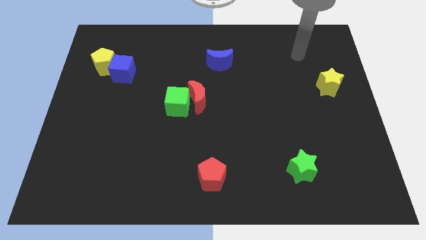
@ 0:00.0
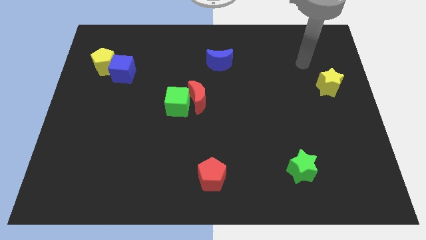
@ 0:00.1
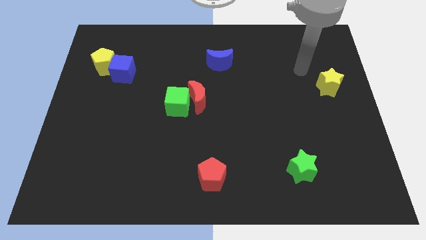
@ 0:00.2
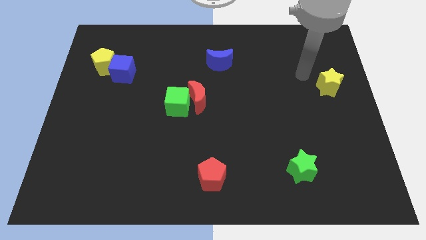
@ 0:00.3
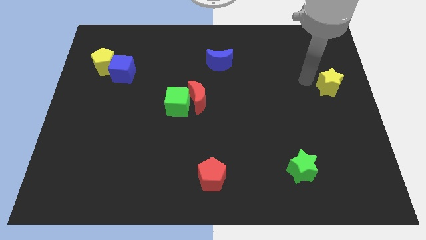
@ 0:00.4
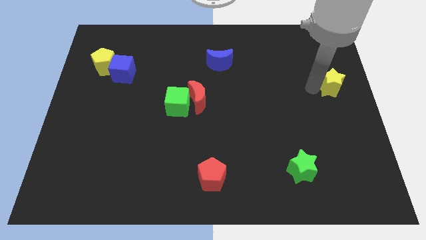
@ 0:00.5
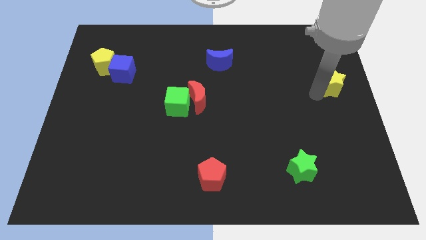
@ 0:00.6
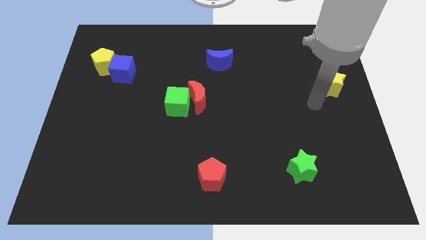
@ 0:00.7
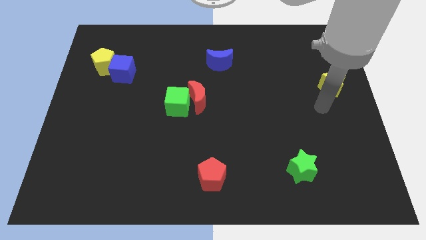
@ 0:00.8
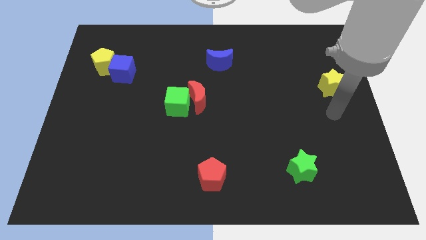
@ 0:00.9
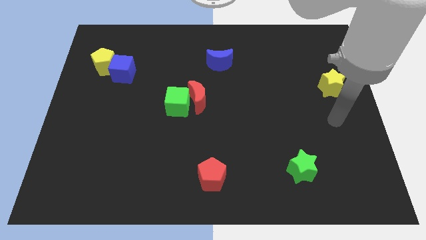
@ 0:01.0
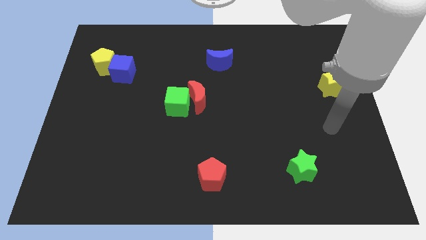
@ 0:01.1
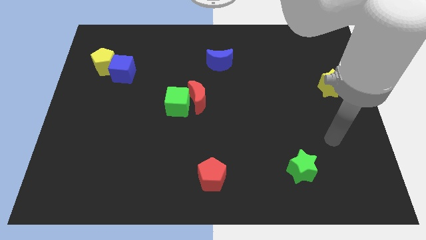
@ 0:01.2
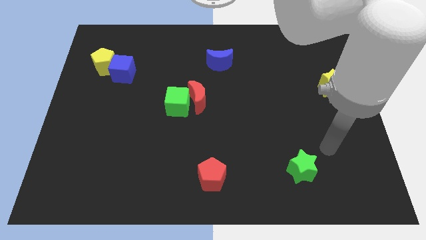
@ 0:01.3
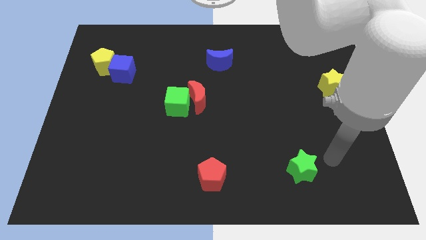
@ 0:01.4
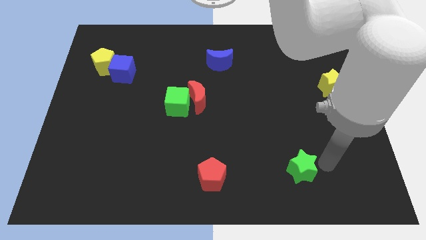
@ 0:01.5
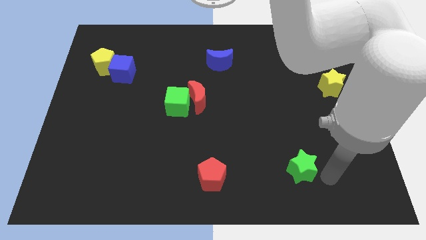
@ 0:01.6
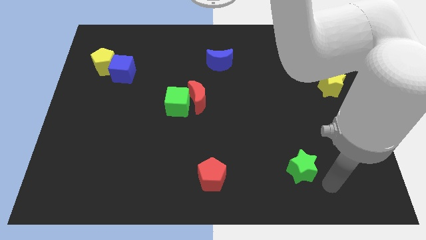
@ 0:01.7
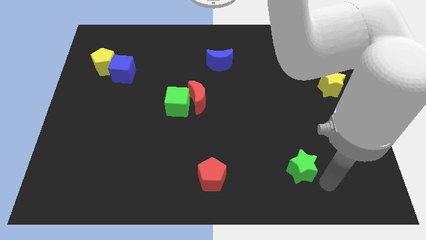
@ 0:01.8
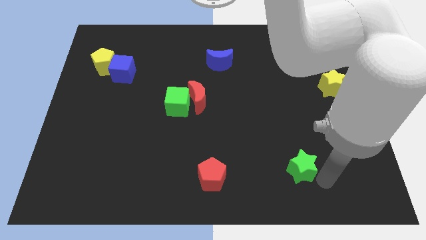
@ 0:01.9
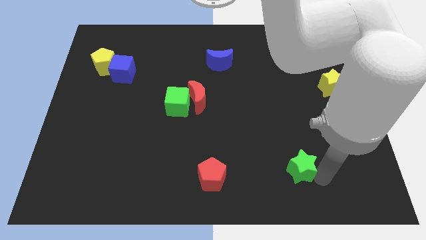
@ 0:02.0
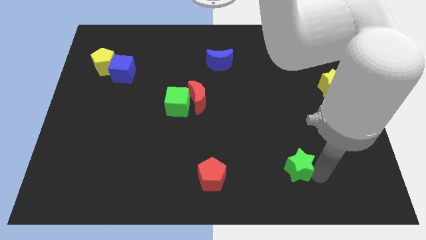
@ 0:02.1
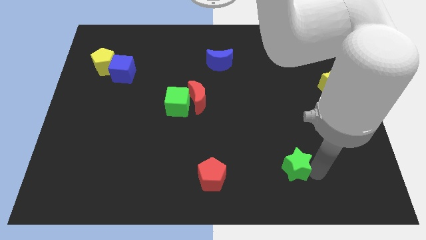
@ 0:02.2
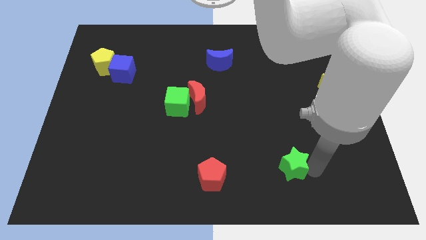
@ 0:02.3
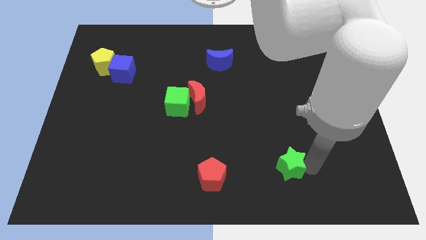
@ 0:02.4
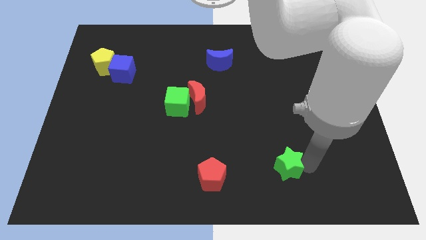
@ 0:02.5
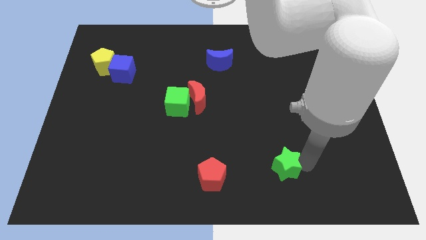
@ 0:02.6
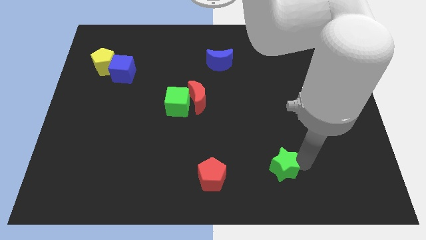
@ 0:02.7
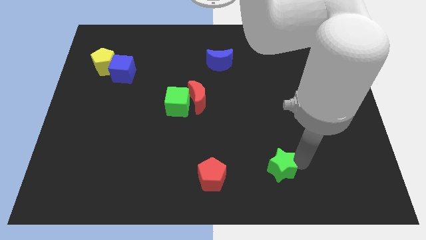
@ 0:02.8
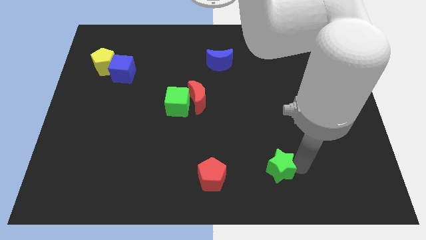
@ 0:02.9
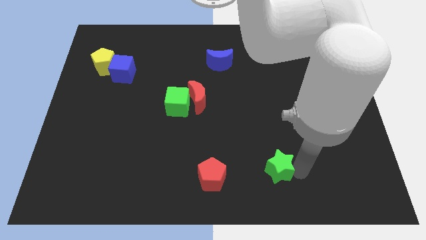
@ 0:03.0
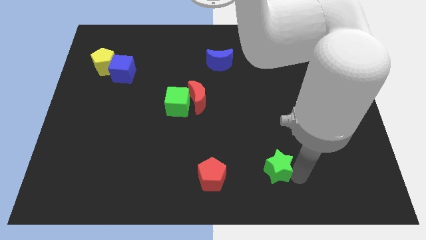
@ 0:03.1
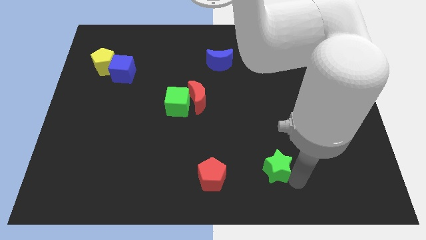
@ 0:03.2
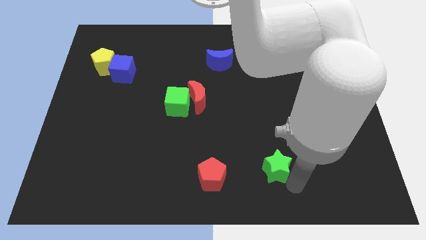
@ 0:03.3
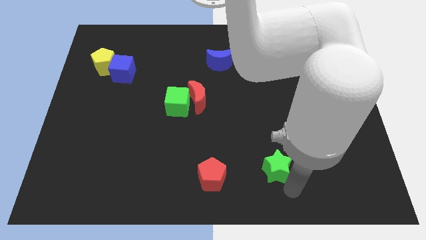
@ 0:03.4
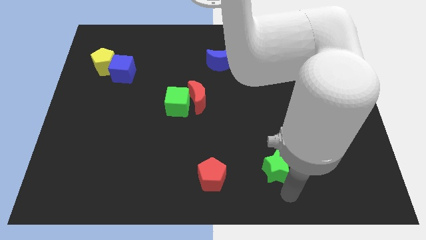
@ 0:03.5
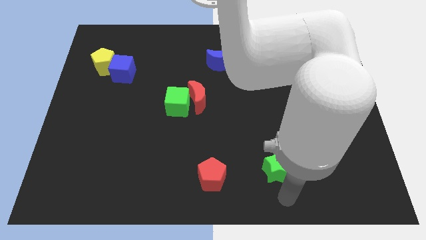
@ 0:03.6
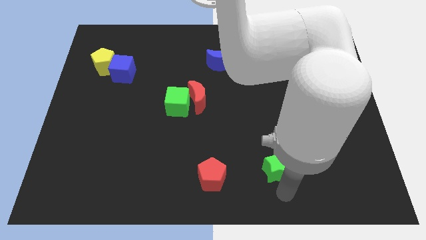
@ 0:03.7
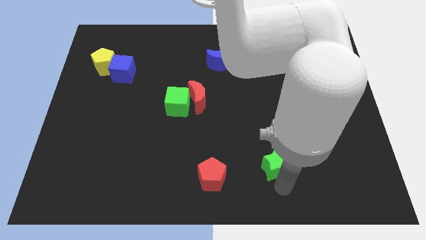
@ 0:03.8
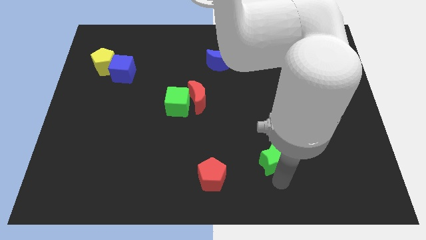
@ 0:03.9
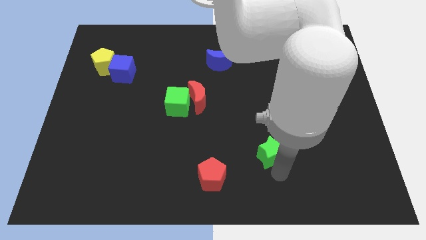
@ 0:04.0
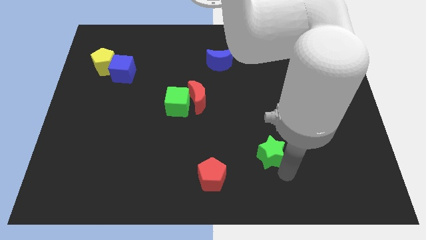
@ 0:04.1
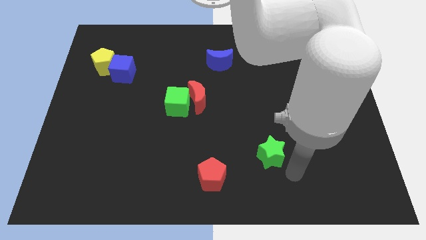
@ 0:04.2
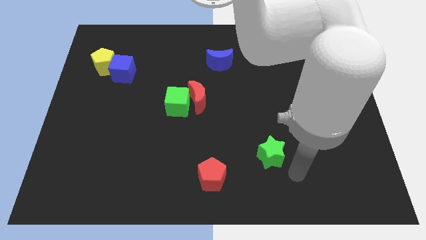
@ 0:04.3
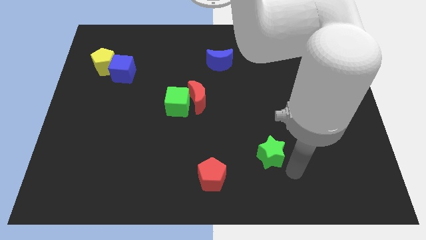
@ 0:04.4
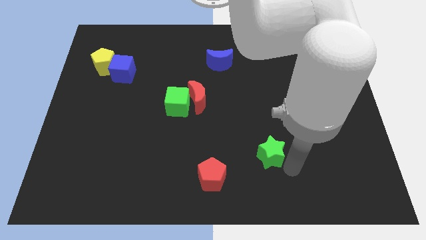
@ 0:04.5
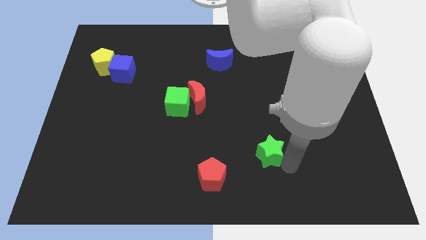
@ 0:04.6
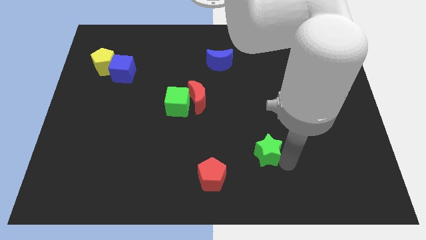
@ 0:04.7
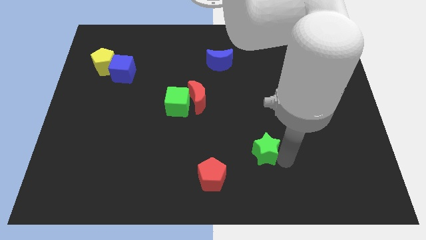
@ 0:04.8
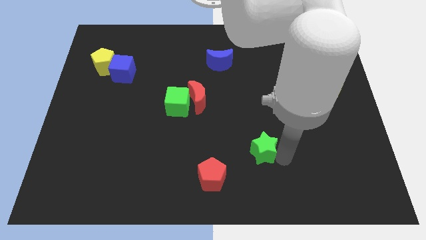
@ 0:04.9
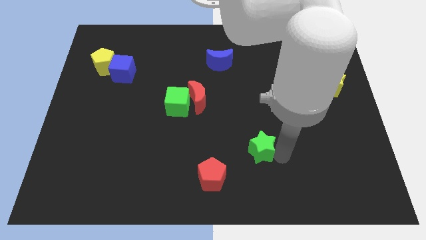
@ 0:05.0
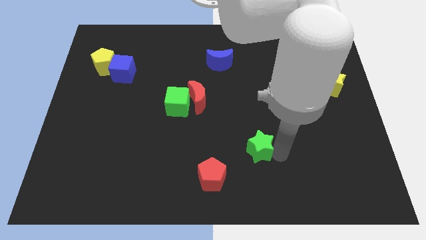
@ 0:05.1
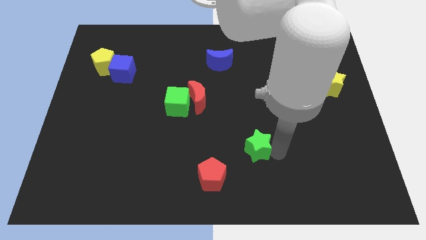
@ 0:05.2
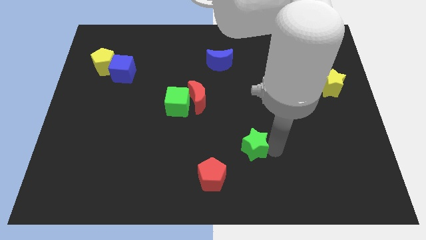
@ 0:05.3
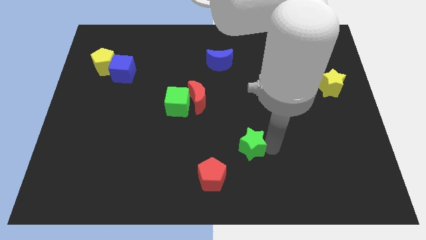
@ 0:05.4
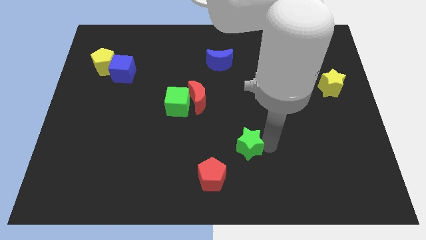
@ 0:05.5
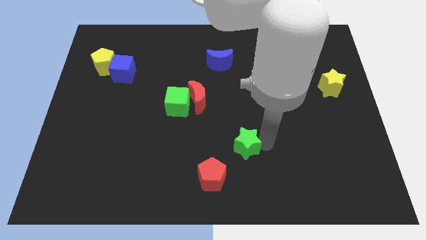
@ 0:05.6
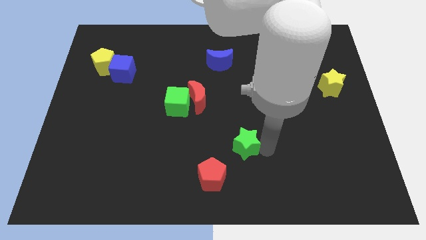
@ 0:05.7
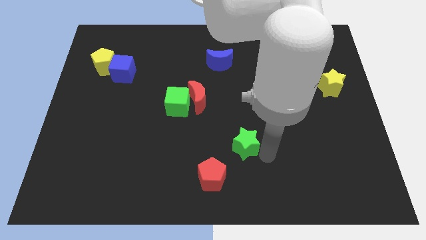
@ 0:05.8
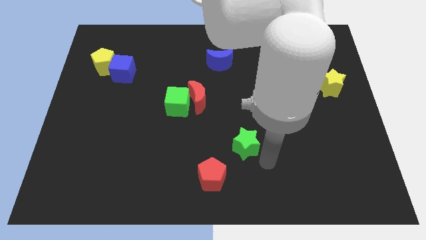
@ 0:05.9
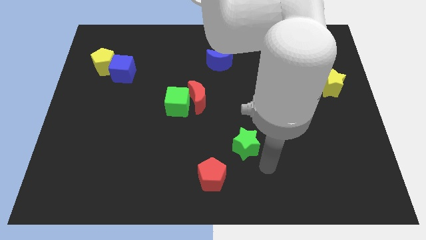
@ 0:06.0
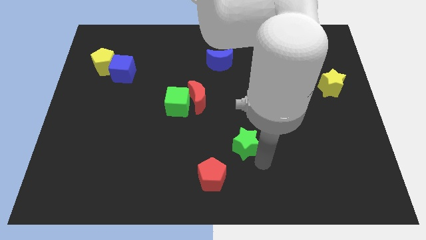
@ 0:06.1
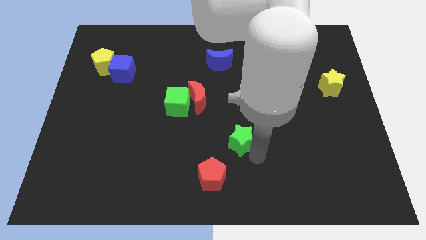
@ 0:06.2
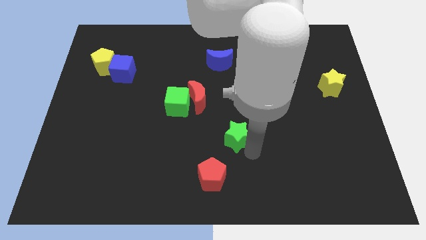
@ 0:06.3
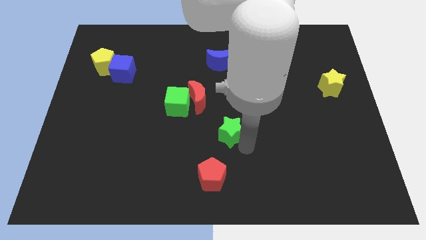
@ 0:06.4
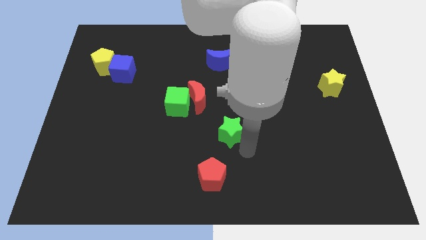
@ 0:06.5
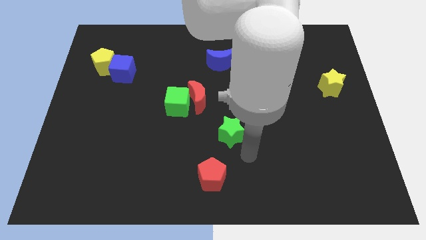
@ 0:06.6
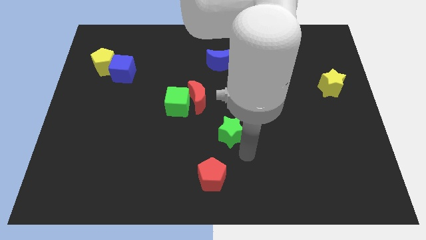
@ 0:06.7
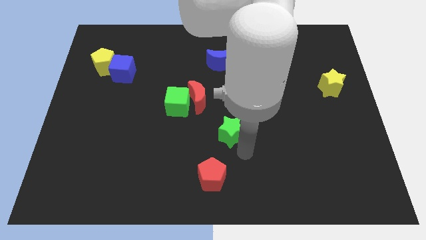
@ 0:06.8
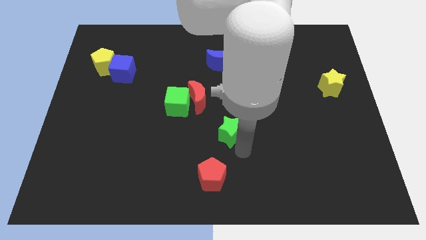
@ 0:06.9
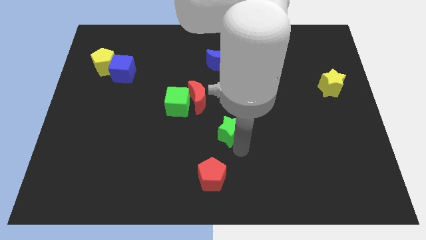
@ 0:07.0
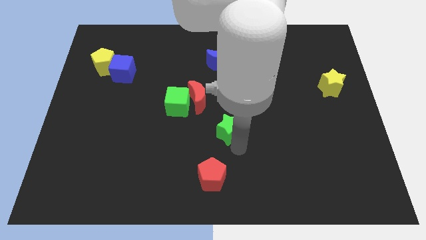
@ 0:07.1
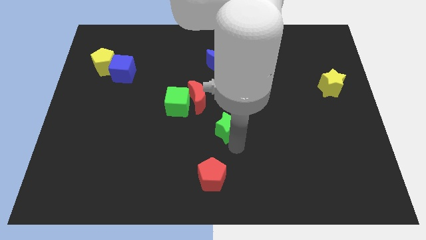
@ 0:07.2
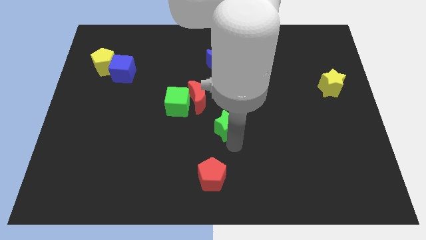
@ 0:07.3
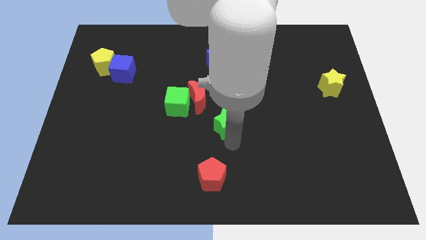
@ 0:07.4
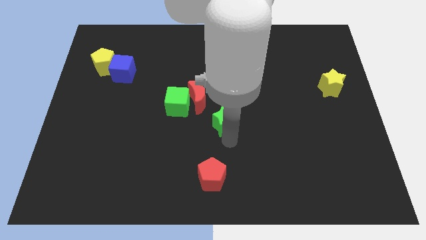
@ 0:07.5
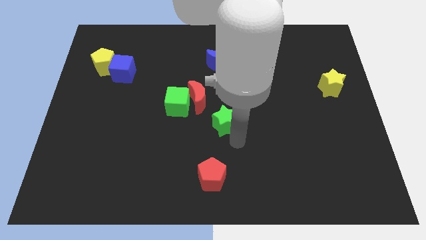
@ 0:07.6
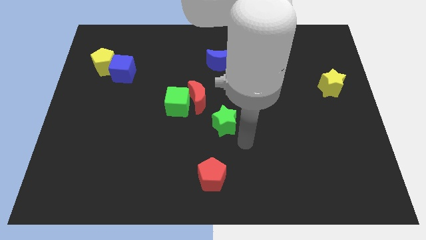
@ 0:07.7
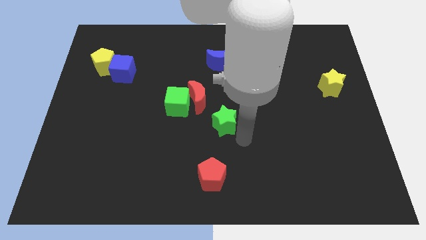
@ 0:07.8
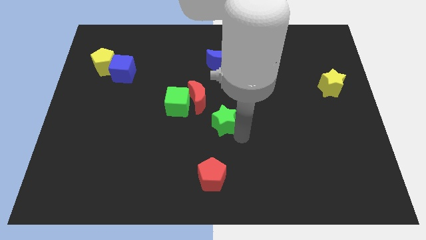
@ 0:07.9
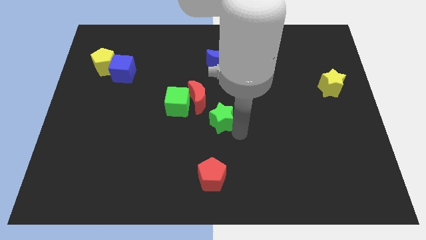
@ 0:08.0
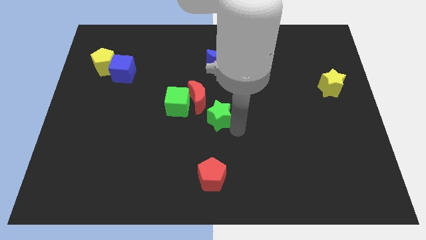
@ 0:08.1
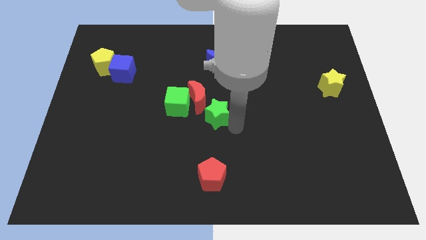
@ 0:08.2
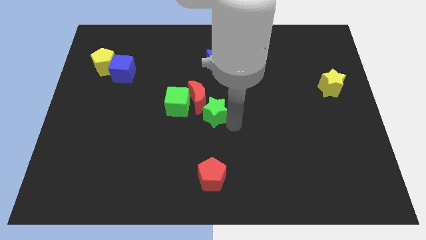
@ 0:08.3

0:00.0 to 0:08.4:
put the green star towards the red moon
